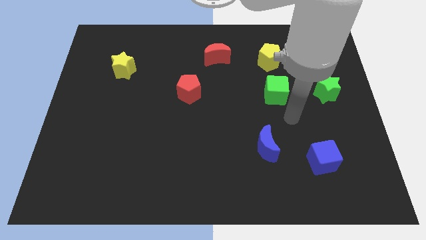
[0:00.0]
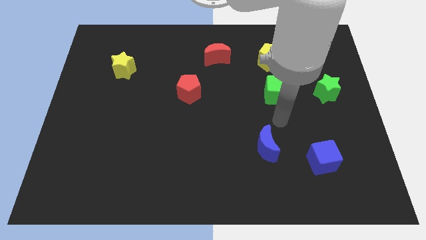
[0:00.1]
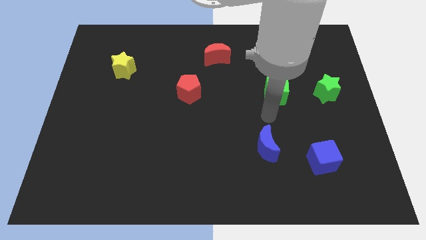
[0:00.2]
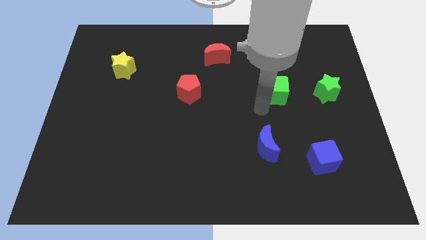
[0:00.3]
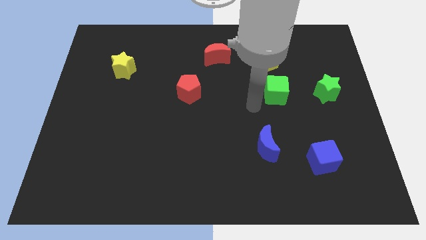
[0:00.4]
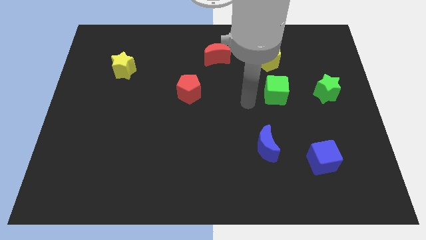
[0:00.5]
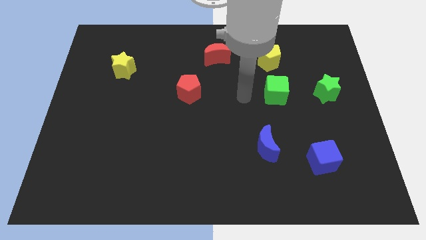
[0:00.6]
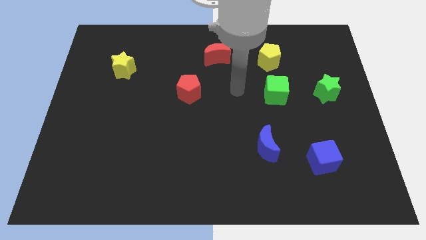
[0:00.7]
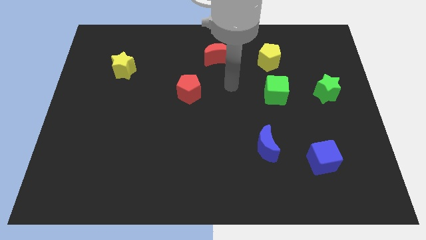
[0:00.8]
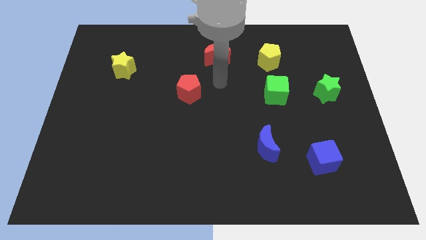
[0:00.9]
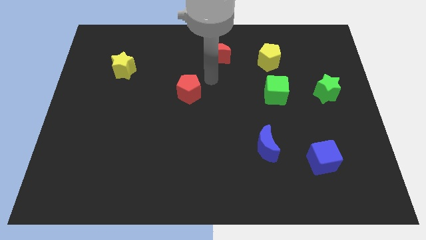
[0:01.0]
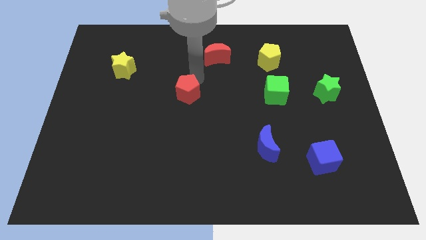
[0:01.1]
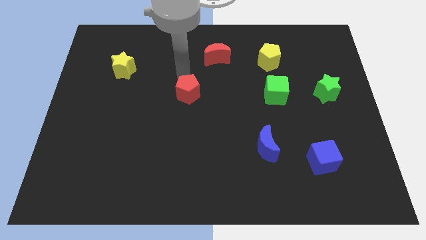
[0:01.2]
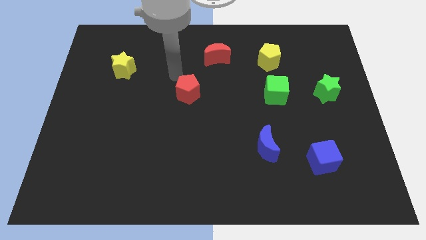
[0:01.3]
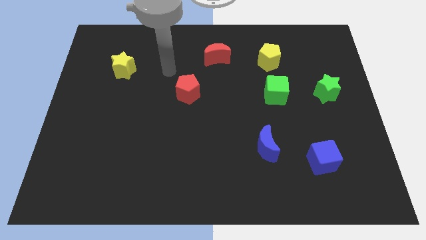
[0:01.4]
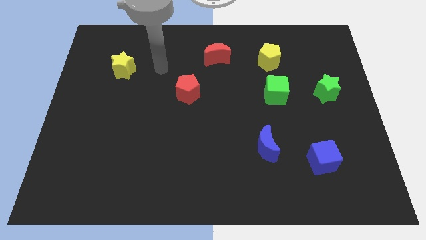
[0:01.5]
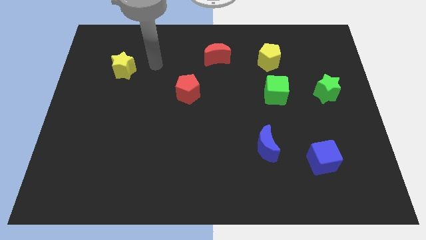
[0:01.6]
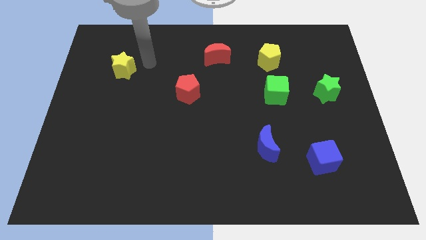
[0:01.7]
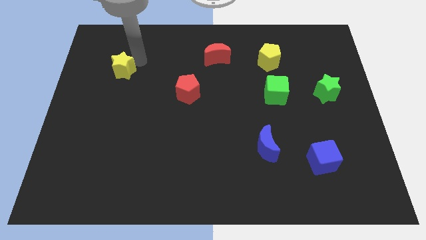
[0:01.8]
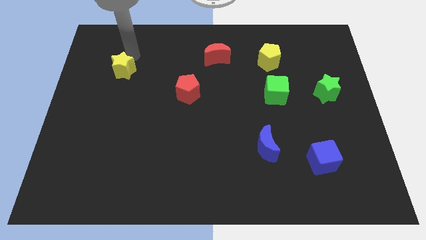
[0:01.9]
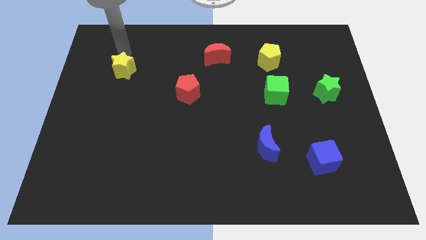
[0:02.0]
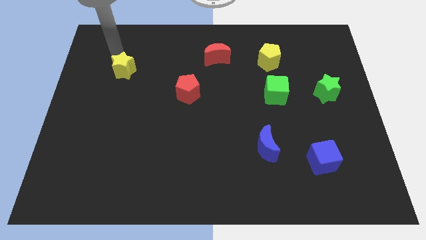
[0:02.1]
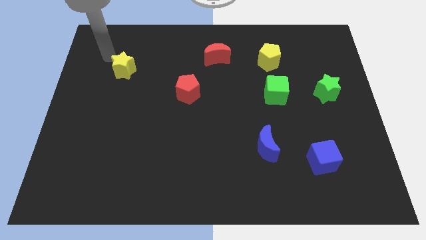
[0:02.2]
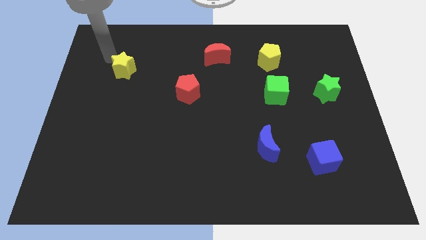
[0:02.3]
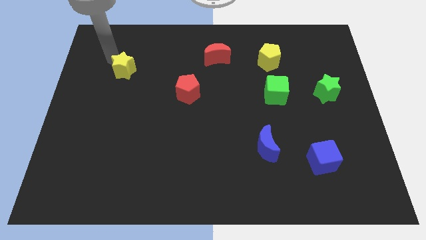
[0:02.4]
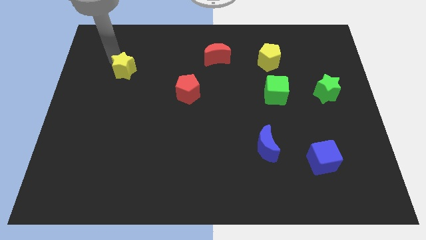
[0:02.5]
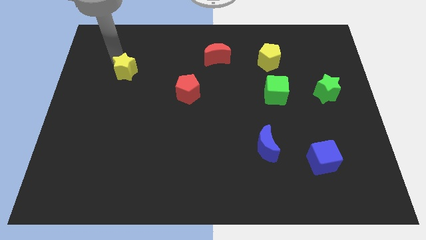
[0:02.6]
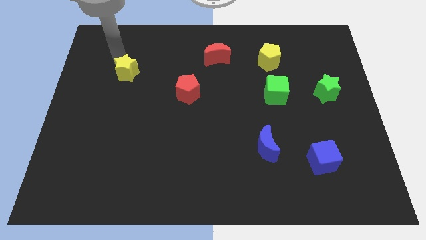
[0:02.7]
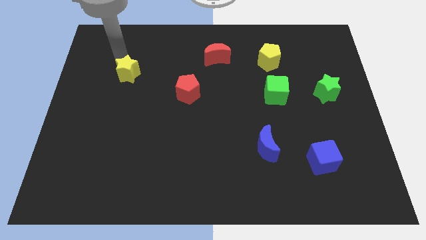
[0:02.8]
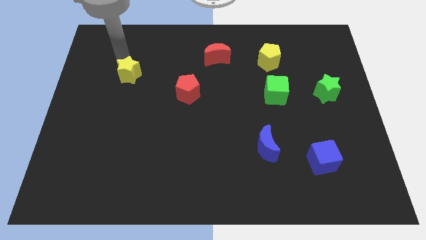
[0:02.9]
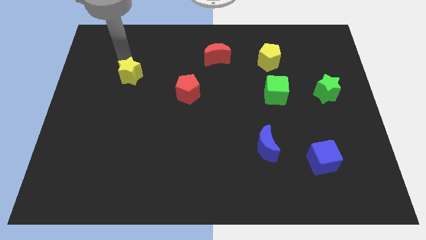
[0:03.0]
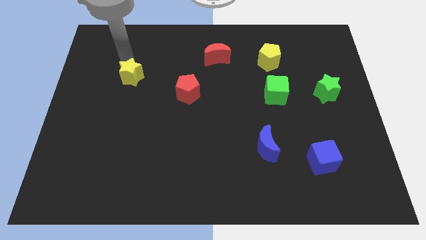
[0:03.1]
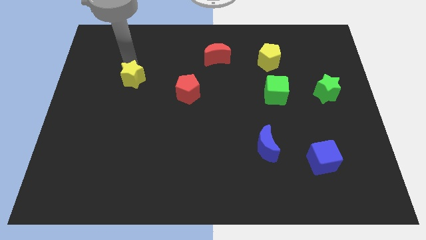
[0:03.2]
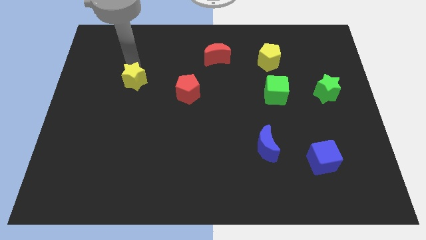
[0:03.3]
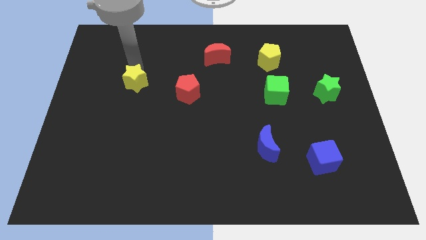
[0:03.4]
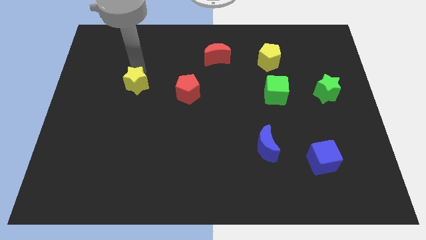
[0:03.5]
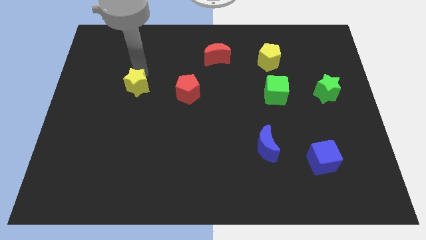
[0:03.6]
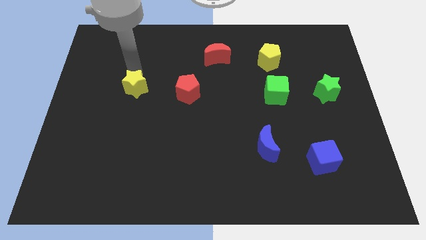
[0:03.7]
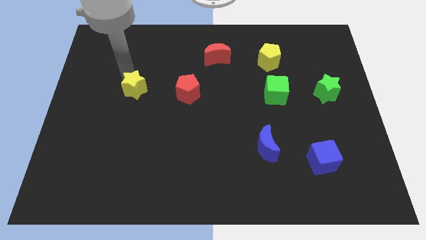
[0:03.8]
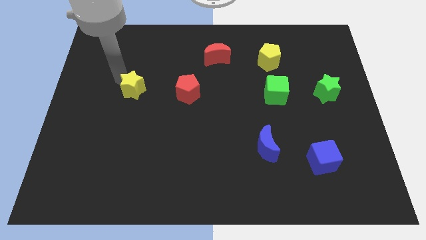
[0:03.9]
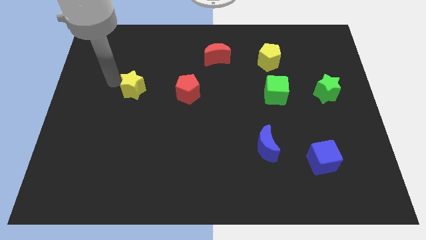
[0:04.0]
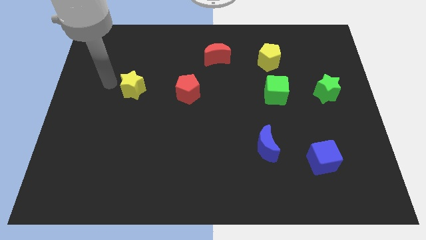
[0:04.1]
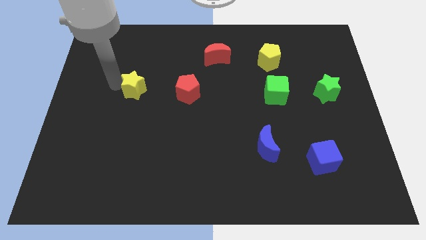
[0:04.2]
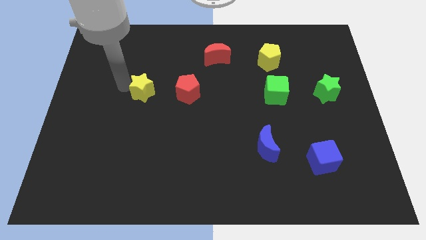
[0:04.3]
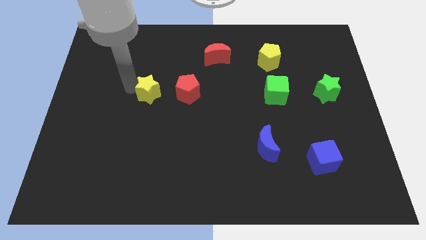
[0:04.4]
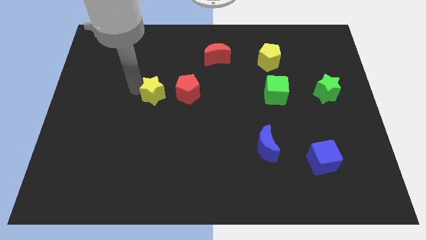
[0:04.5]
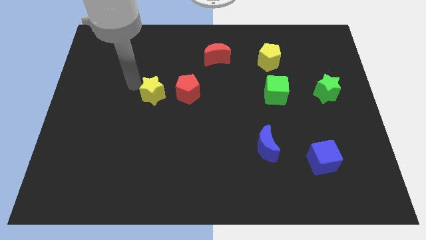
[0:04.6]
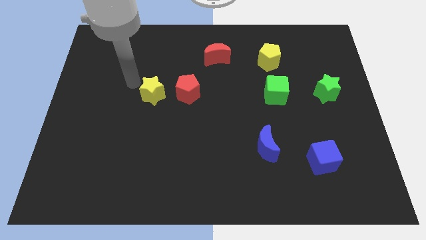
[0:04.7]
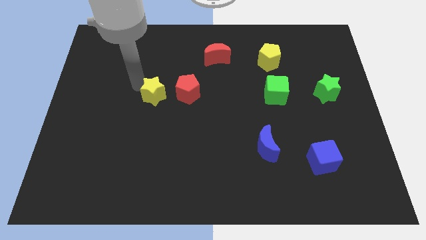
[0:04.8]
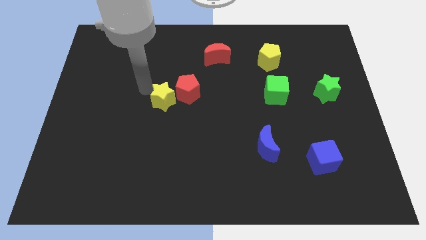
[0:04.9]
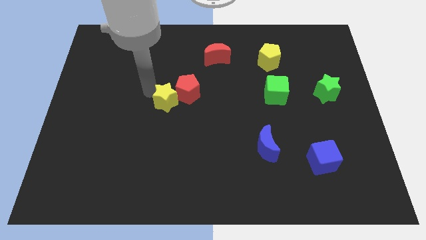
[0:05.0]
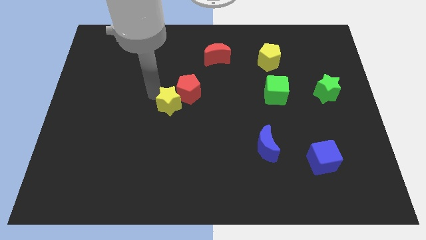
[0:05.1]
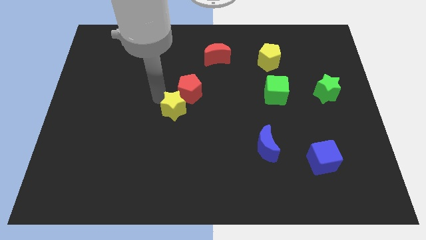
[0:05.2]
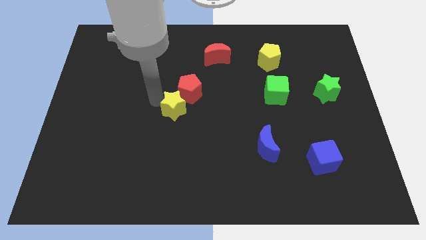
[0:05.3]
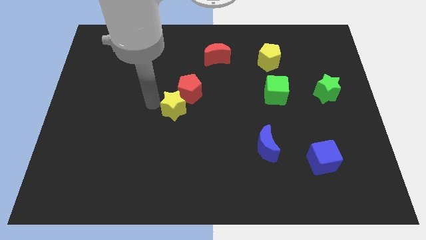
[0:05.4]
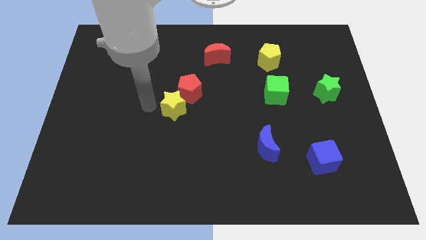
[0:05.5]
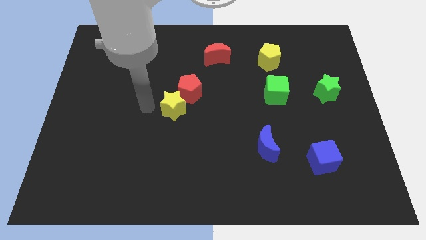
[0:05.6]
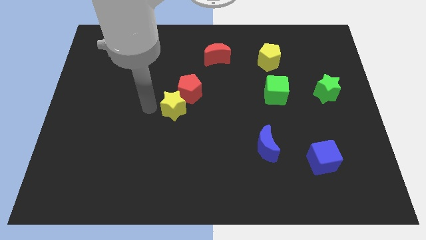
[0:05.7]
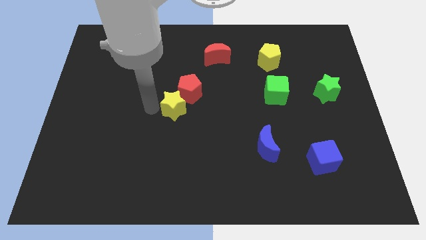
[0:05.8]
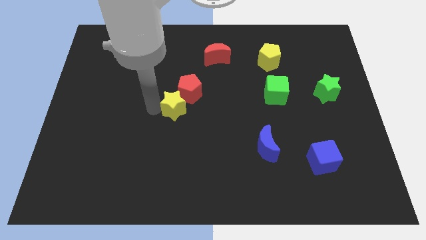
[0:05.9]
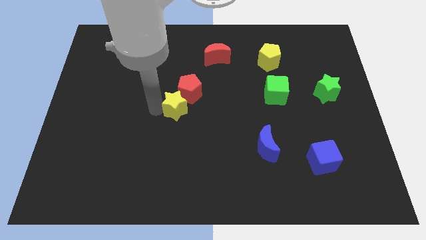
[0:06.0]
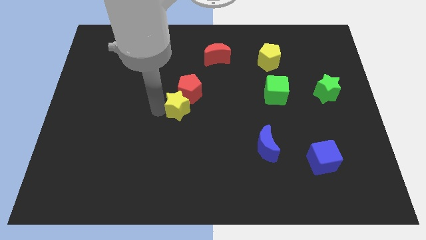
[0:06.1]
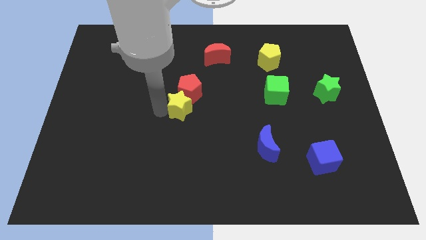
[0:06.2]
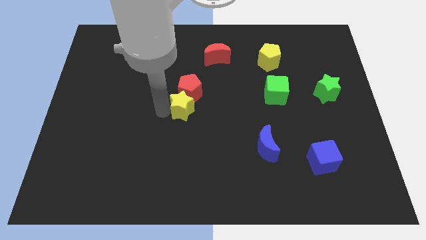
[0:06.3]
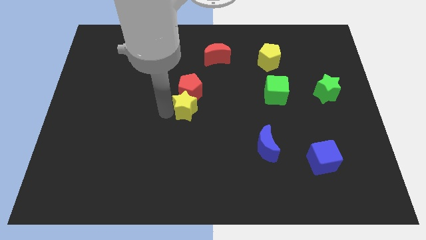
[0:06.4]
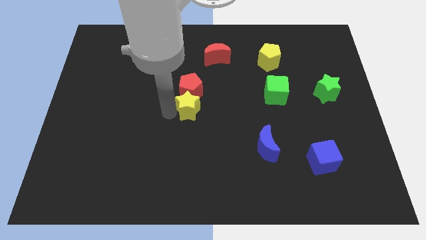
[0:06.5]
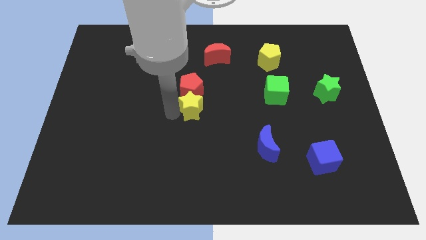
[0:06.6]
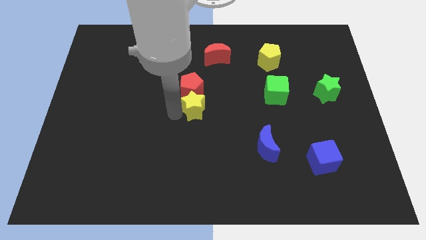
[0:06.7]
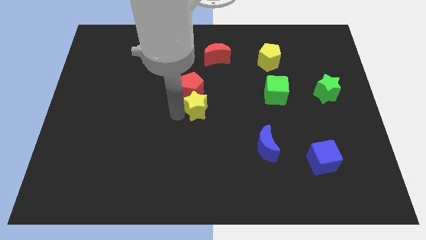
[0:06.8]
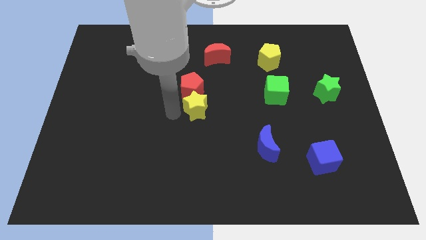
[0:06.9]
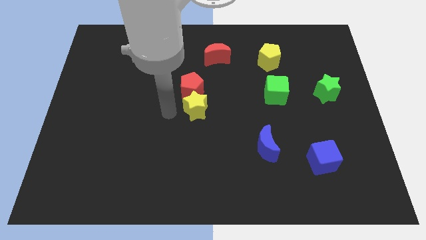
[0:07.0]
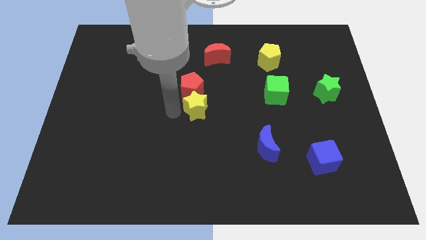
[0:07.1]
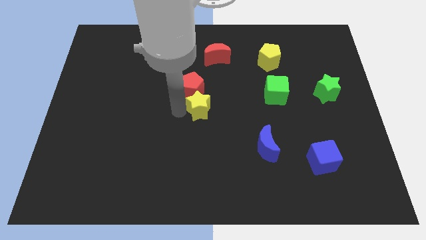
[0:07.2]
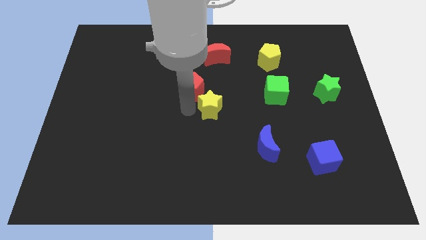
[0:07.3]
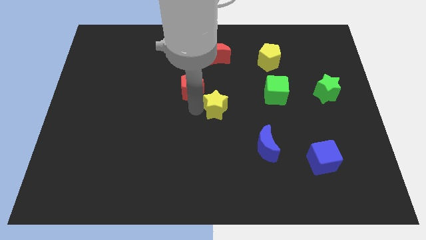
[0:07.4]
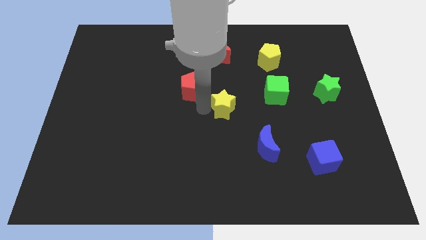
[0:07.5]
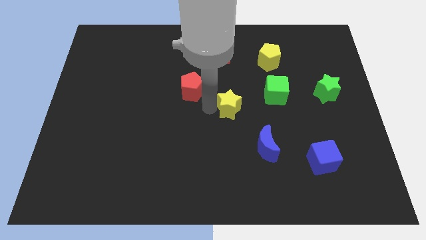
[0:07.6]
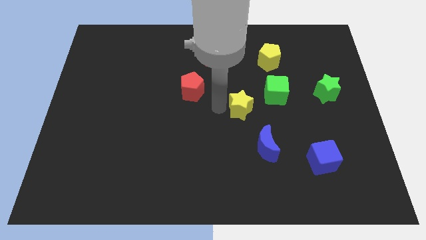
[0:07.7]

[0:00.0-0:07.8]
push the yellow star to the top of the blue moon
